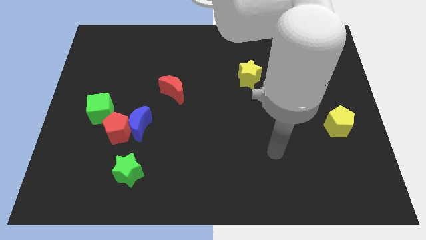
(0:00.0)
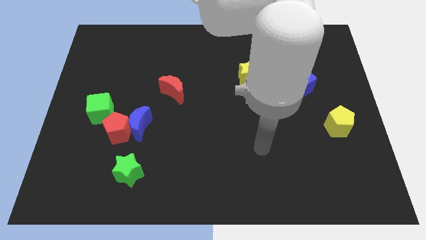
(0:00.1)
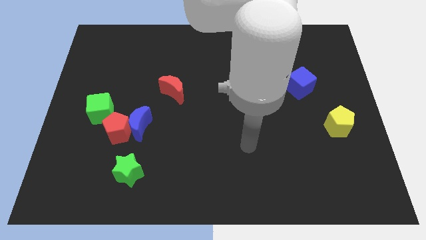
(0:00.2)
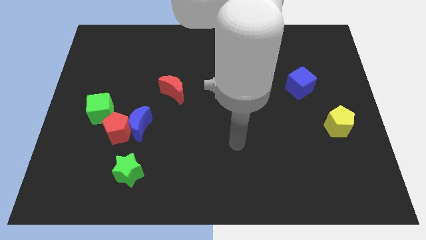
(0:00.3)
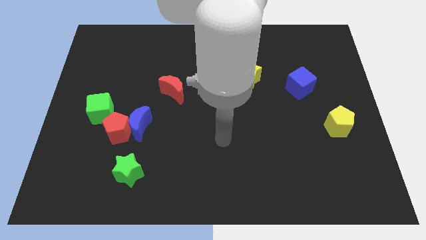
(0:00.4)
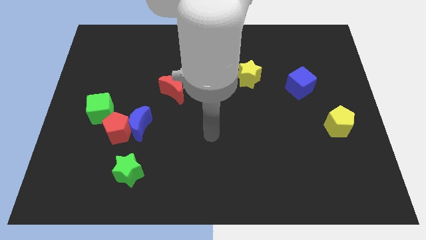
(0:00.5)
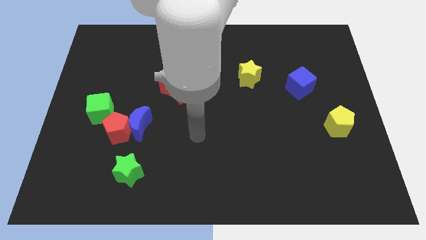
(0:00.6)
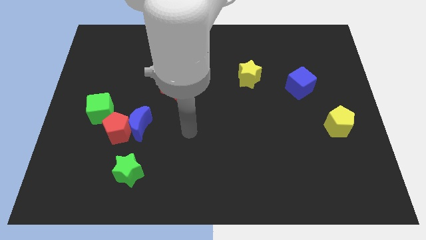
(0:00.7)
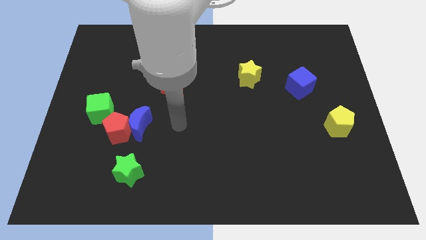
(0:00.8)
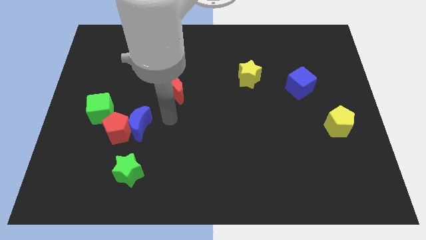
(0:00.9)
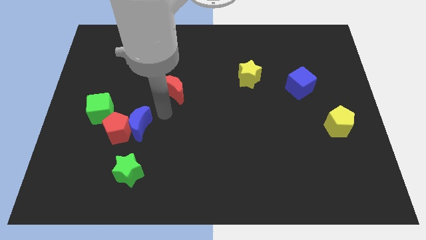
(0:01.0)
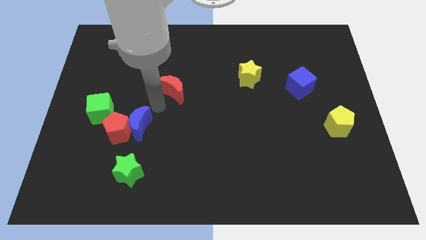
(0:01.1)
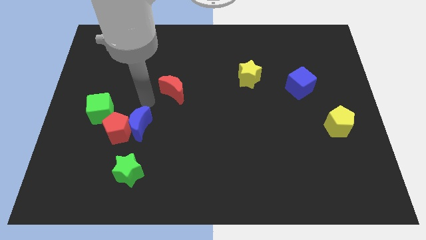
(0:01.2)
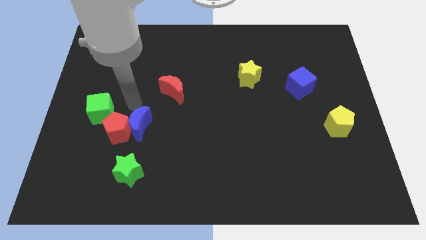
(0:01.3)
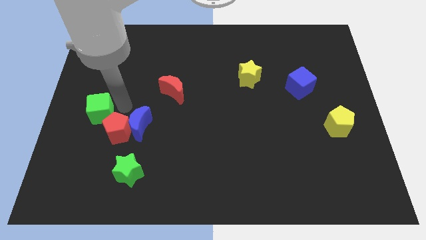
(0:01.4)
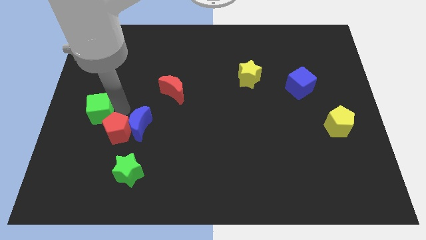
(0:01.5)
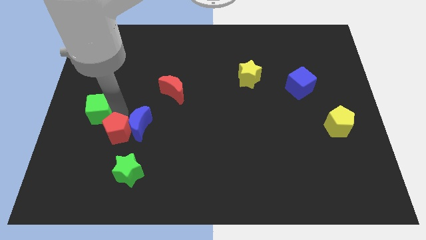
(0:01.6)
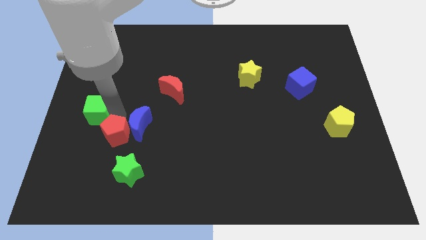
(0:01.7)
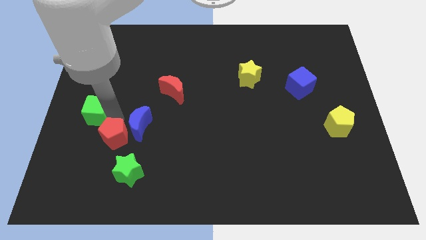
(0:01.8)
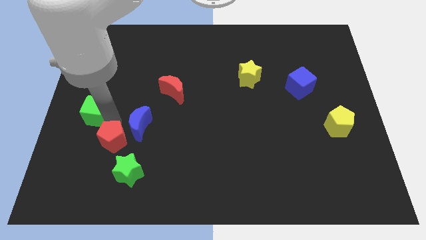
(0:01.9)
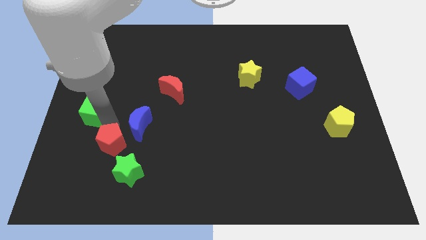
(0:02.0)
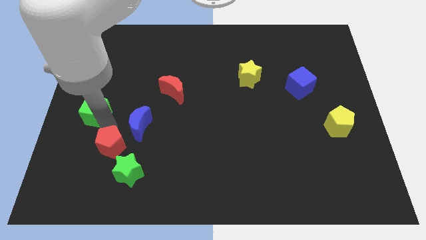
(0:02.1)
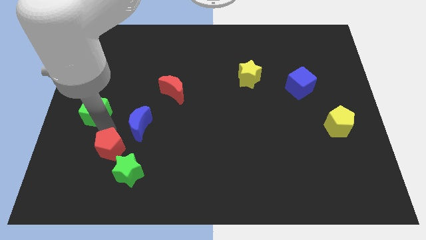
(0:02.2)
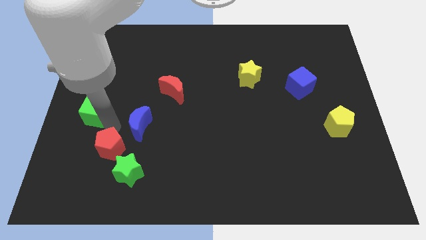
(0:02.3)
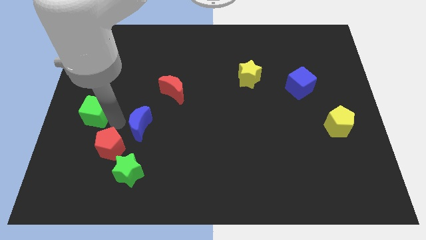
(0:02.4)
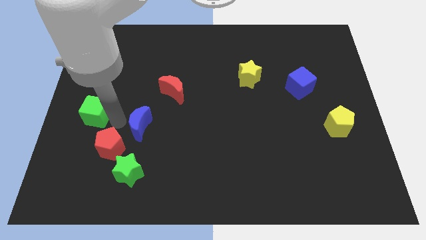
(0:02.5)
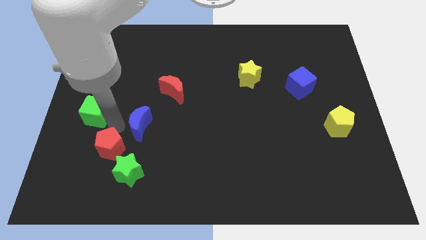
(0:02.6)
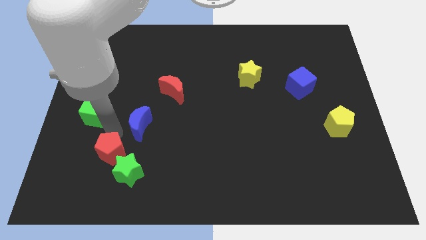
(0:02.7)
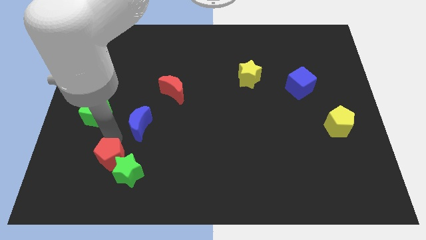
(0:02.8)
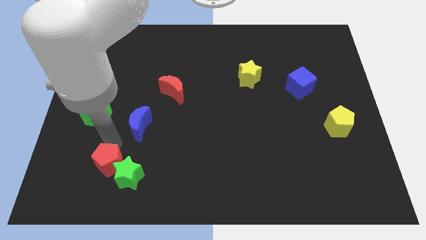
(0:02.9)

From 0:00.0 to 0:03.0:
move the red pentagon away from the blue moon and green cube

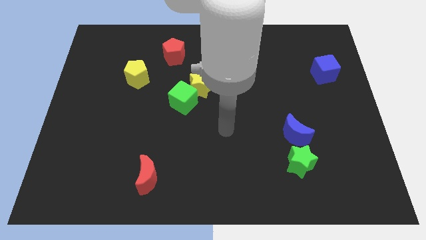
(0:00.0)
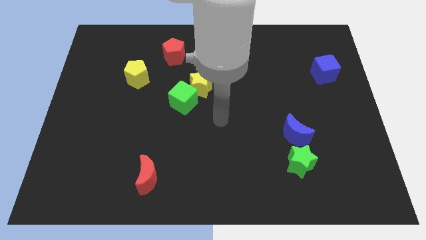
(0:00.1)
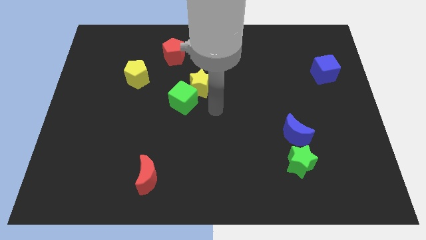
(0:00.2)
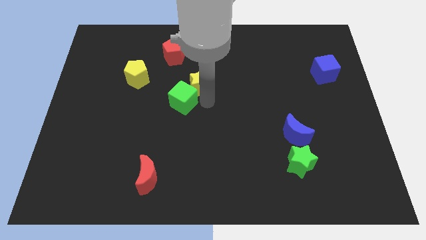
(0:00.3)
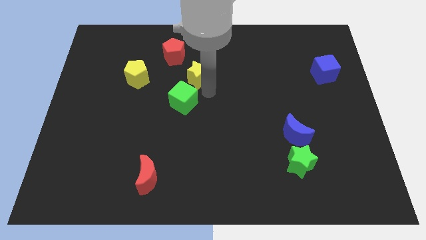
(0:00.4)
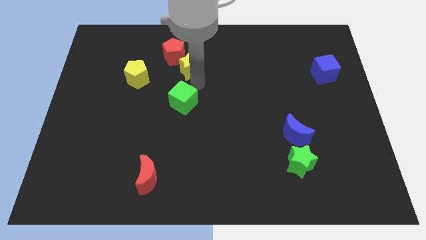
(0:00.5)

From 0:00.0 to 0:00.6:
separate the green cube from the yellow star

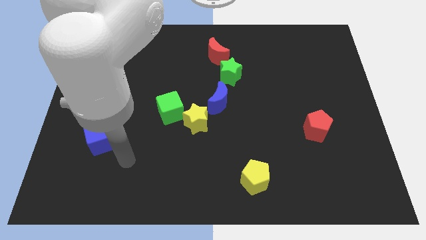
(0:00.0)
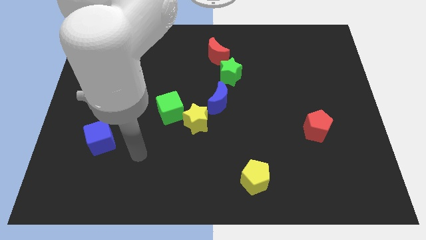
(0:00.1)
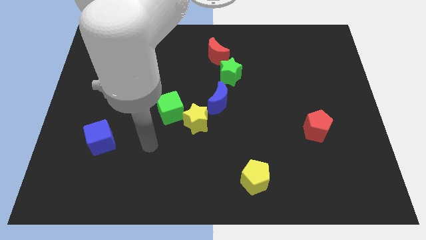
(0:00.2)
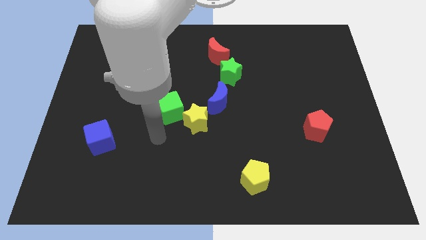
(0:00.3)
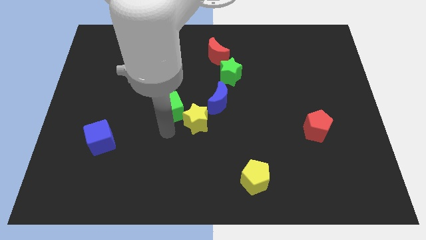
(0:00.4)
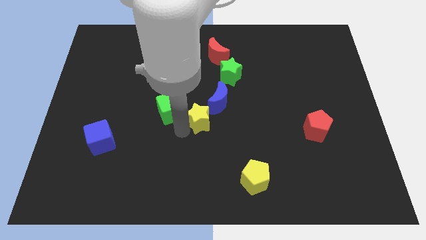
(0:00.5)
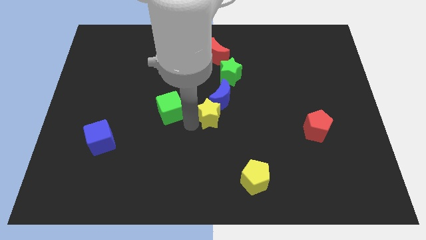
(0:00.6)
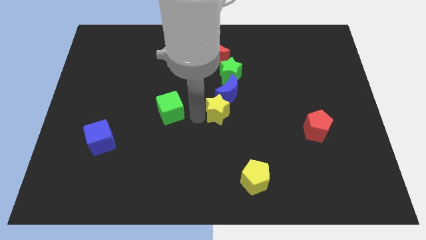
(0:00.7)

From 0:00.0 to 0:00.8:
move the green cube away from the yellow star

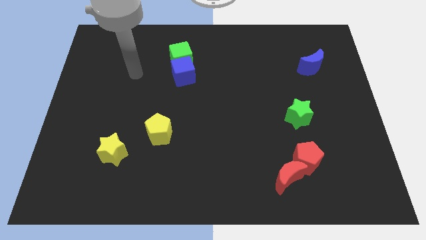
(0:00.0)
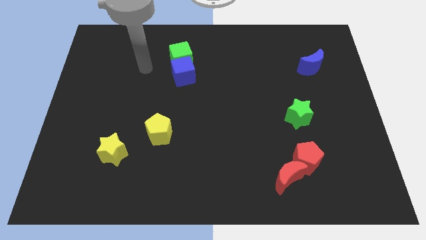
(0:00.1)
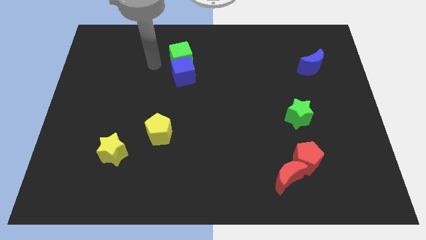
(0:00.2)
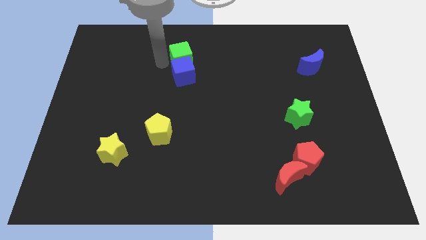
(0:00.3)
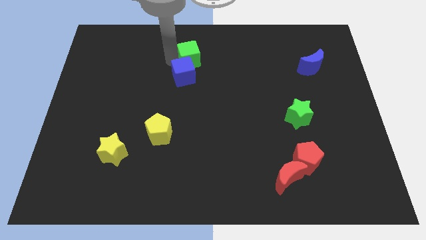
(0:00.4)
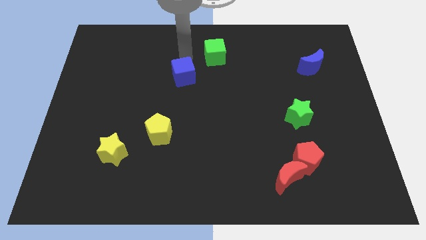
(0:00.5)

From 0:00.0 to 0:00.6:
pull the blue cube apart from the green cube

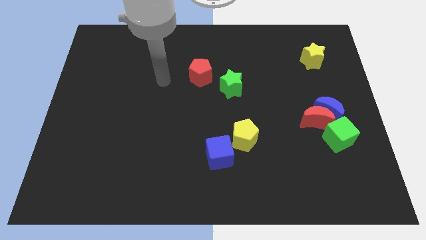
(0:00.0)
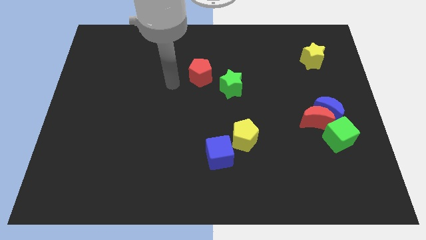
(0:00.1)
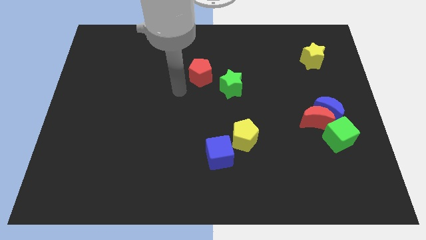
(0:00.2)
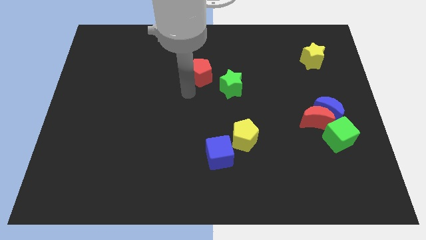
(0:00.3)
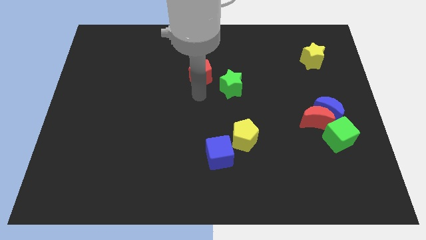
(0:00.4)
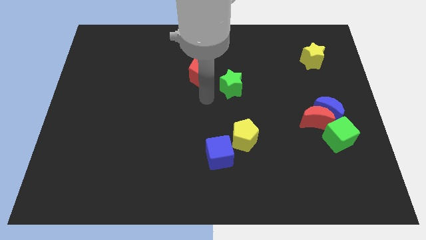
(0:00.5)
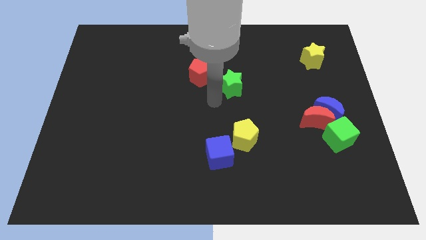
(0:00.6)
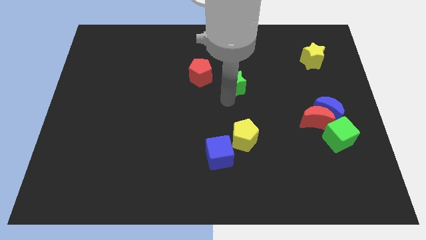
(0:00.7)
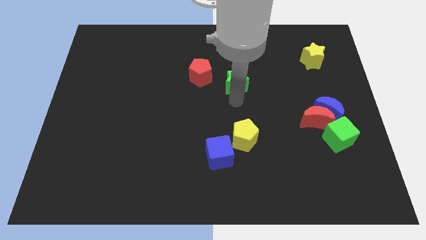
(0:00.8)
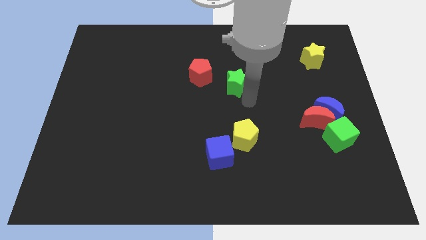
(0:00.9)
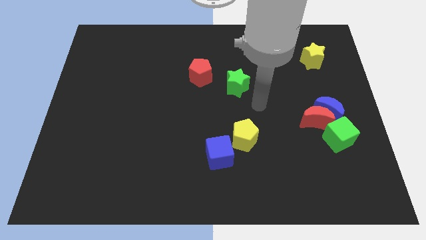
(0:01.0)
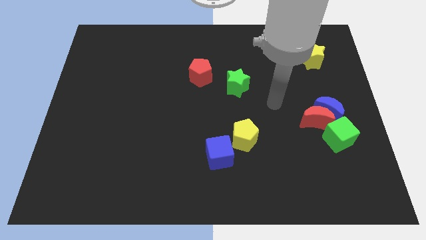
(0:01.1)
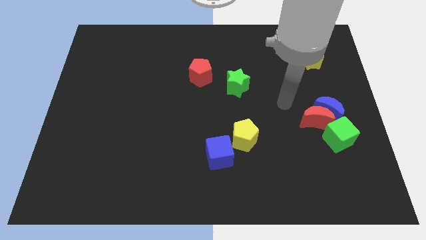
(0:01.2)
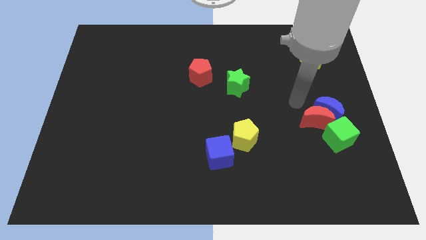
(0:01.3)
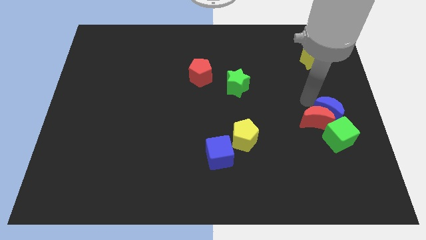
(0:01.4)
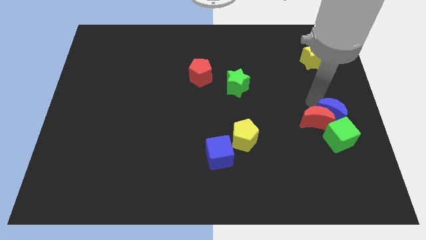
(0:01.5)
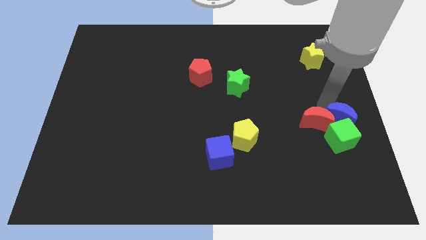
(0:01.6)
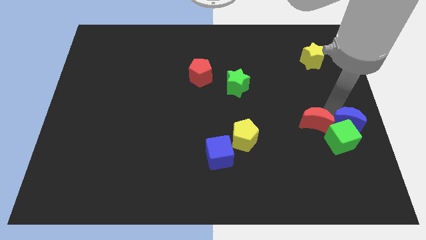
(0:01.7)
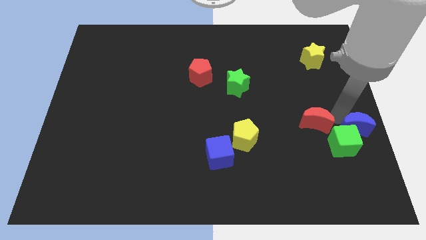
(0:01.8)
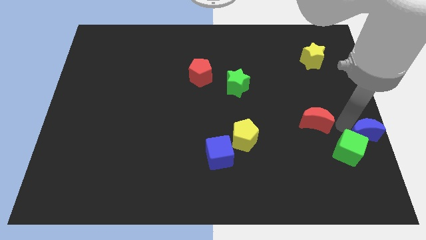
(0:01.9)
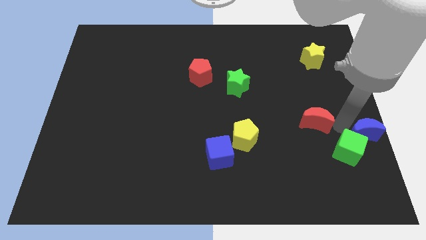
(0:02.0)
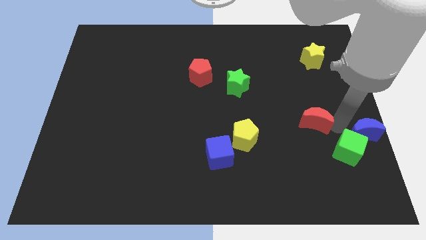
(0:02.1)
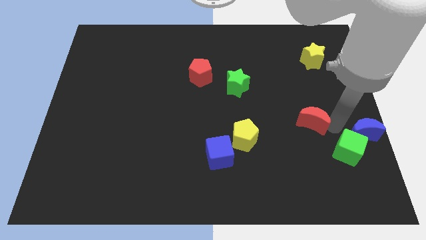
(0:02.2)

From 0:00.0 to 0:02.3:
separate the red moon from the blue moon and green cube

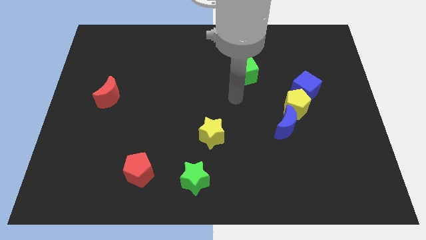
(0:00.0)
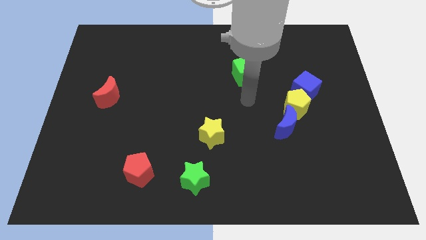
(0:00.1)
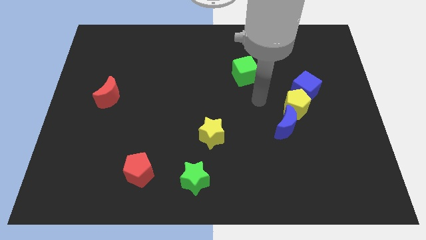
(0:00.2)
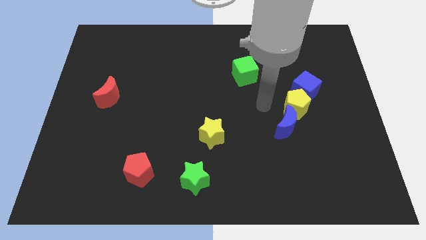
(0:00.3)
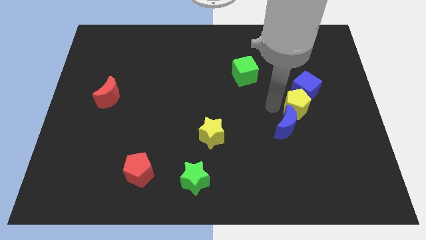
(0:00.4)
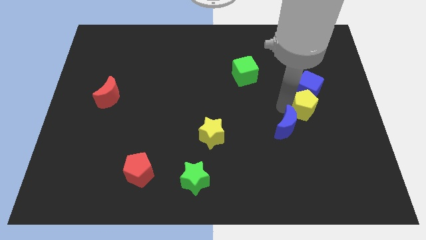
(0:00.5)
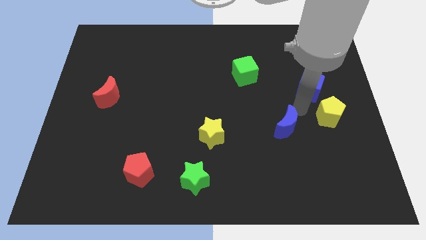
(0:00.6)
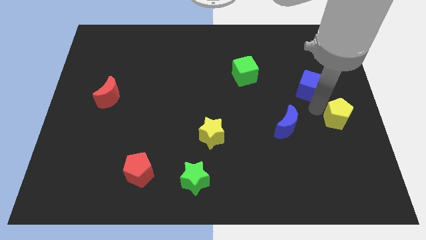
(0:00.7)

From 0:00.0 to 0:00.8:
separate the blue cube from the yellow pentagon

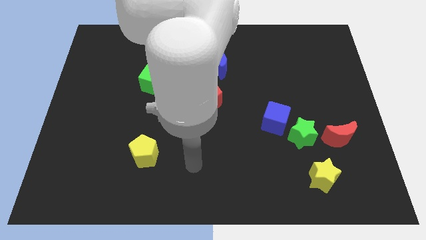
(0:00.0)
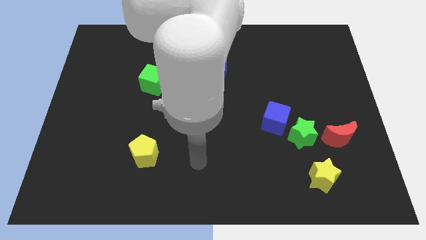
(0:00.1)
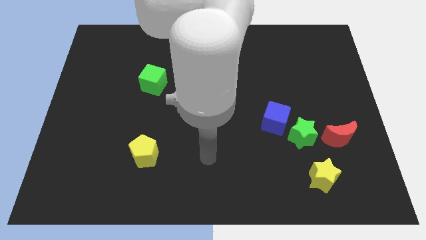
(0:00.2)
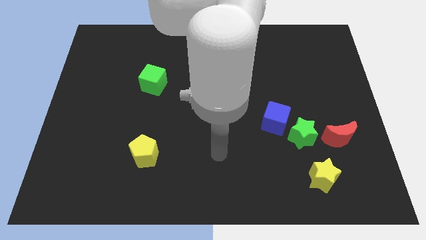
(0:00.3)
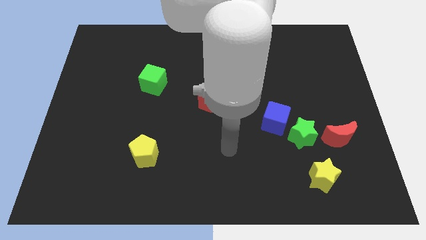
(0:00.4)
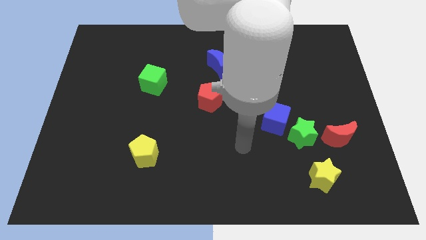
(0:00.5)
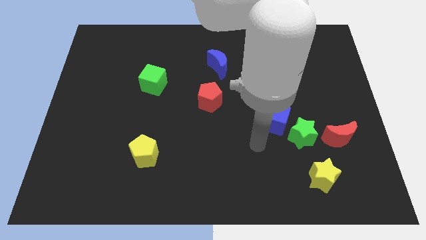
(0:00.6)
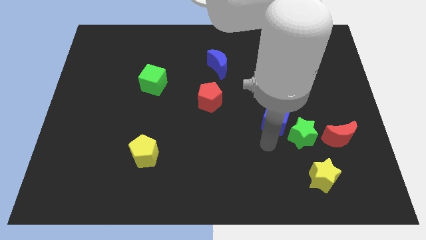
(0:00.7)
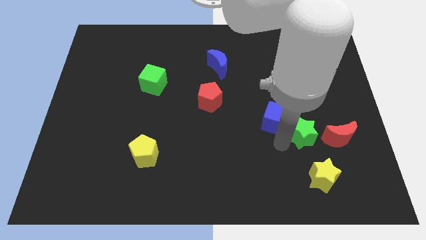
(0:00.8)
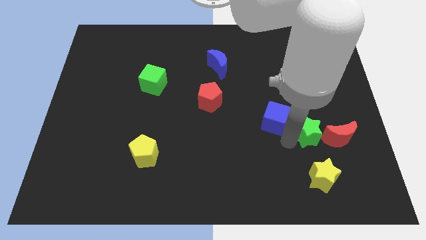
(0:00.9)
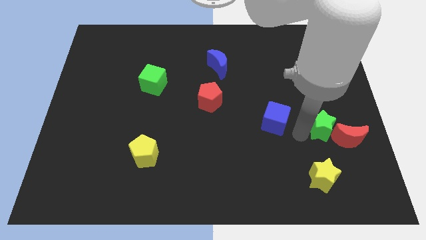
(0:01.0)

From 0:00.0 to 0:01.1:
separate the blue cube from the green star
